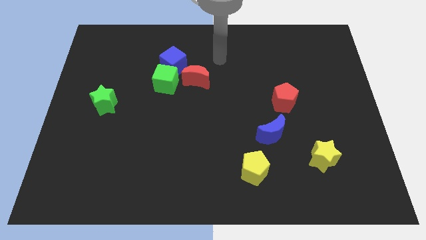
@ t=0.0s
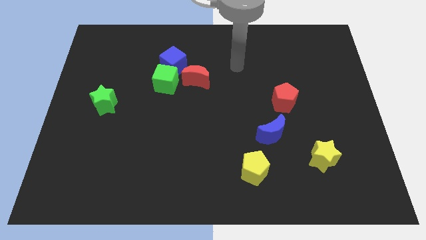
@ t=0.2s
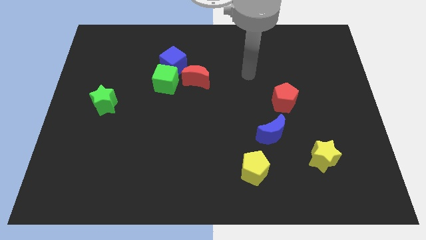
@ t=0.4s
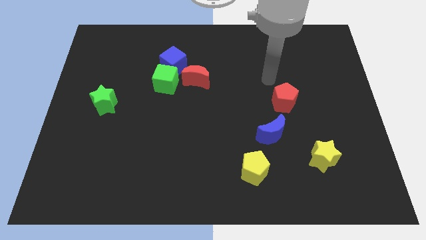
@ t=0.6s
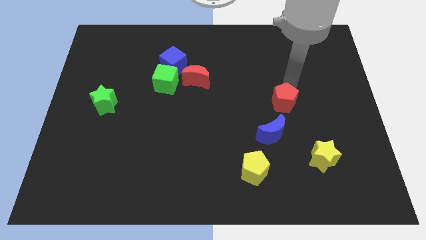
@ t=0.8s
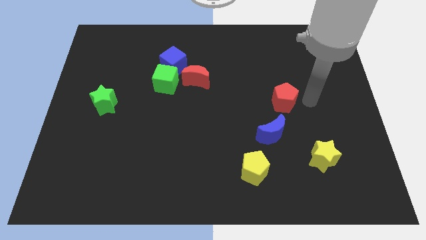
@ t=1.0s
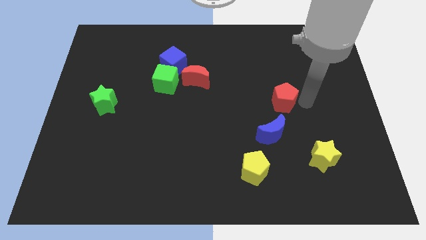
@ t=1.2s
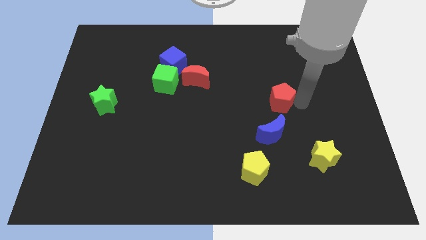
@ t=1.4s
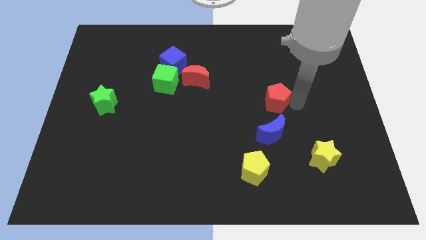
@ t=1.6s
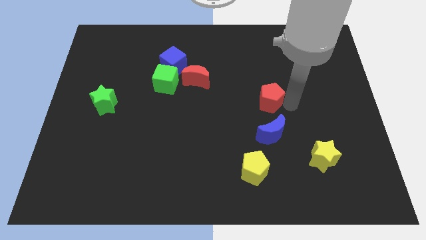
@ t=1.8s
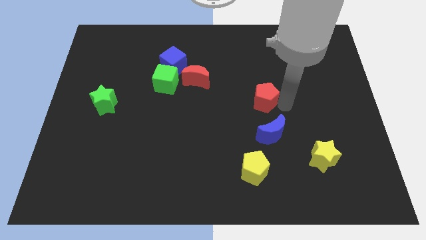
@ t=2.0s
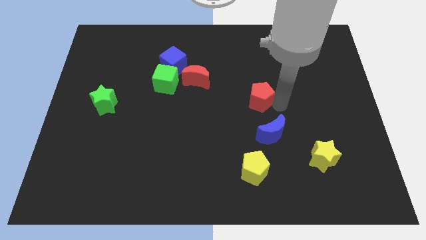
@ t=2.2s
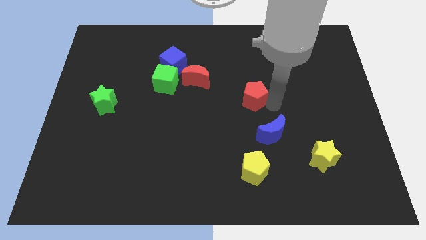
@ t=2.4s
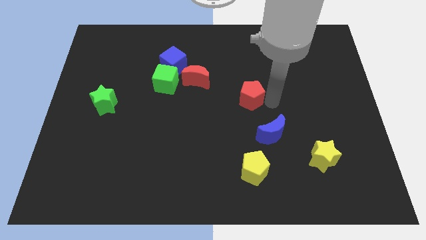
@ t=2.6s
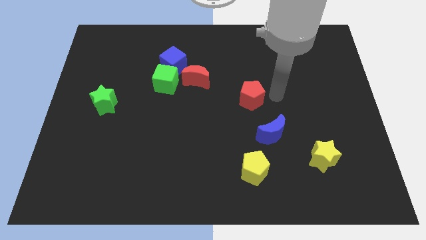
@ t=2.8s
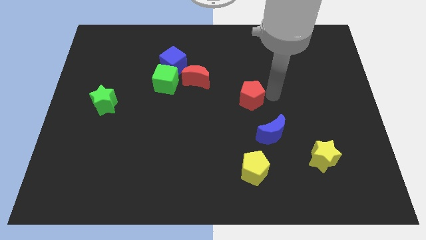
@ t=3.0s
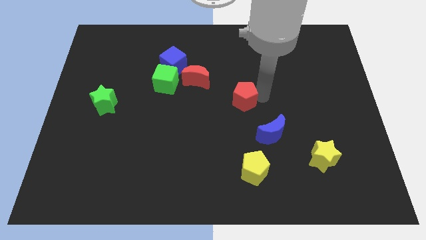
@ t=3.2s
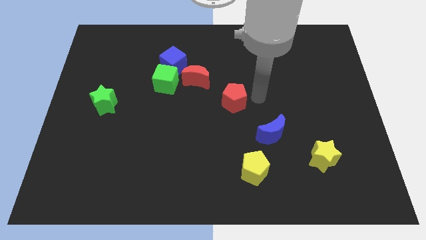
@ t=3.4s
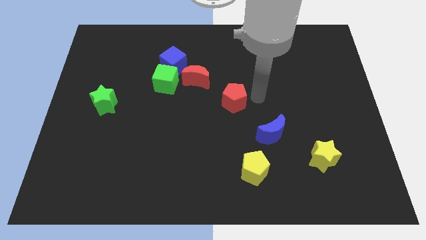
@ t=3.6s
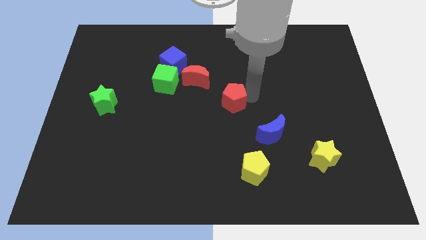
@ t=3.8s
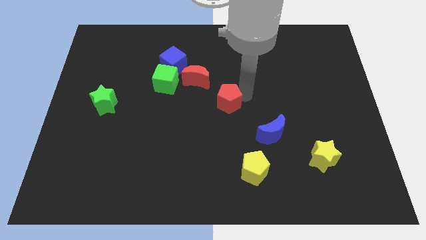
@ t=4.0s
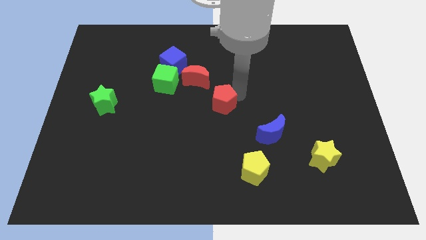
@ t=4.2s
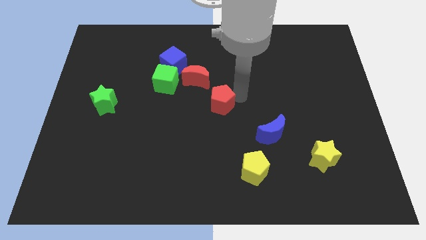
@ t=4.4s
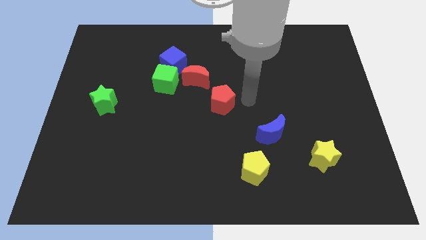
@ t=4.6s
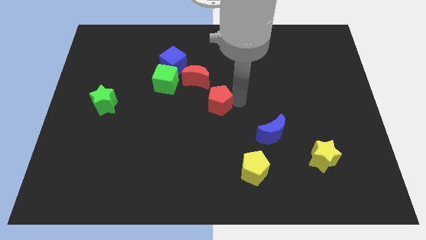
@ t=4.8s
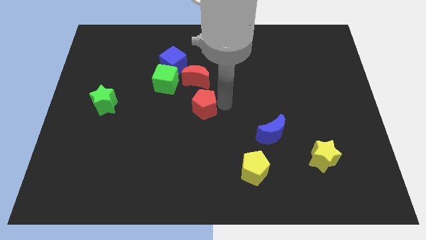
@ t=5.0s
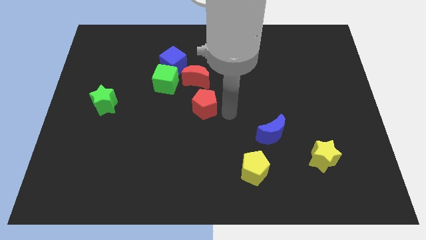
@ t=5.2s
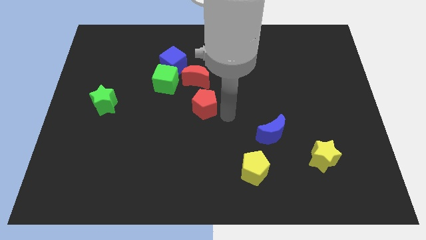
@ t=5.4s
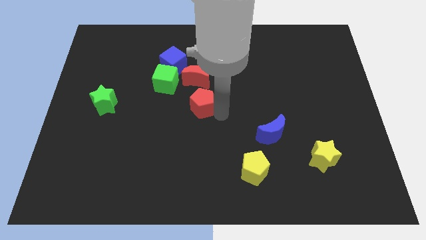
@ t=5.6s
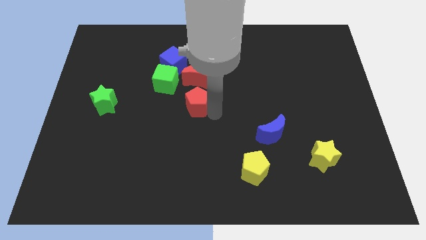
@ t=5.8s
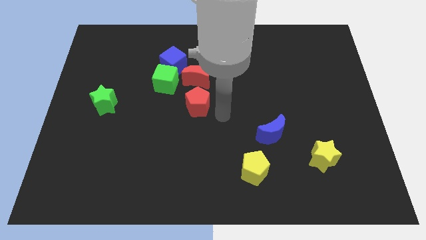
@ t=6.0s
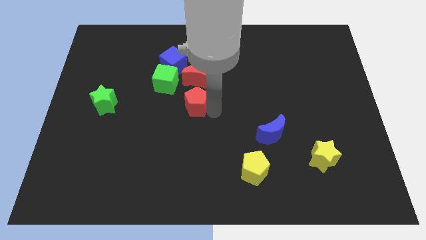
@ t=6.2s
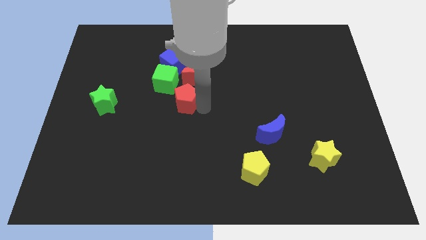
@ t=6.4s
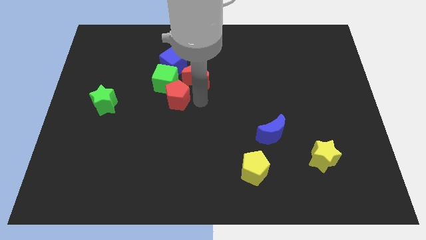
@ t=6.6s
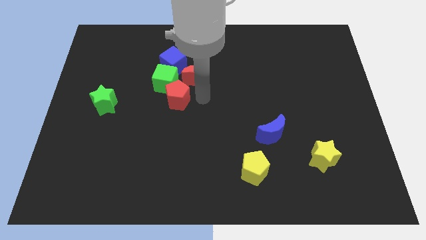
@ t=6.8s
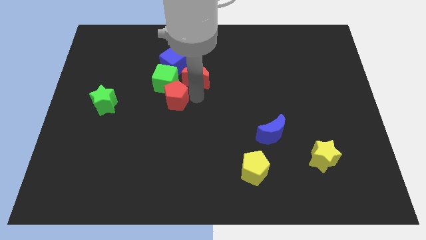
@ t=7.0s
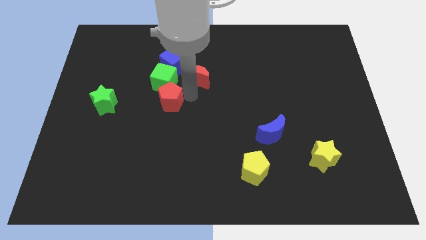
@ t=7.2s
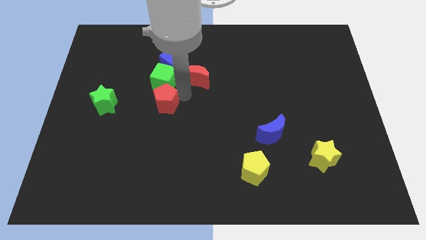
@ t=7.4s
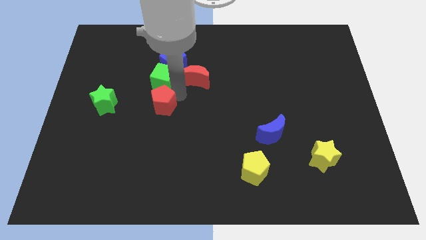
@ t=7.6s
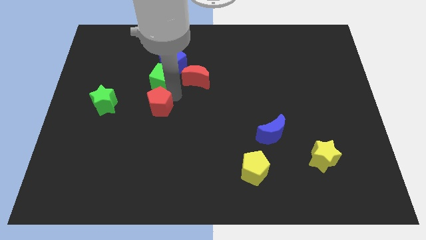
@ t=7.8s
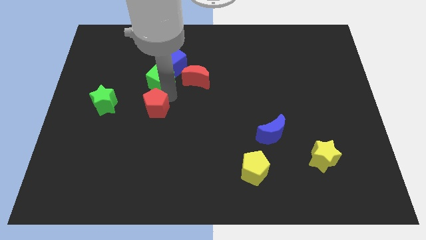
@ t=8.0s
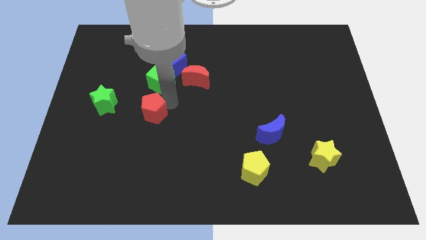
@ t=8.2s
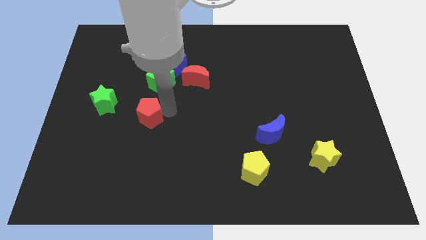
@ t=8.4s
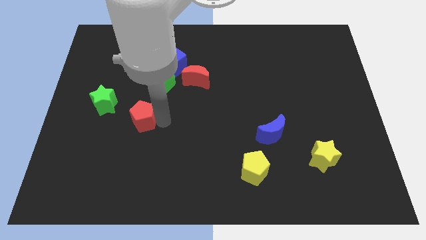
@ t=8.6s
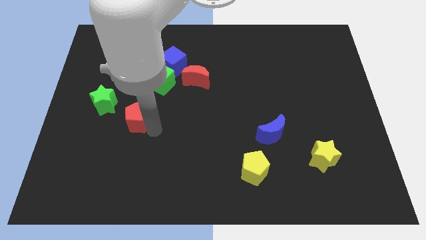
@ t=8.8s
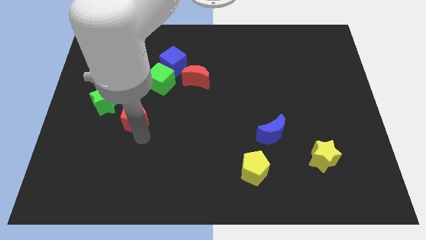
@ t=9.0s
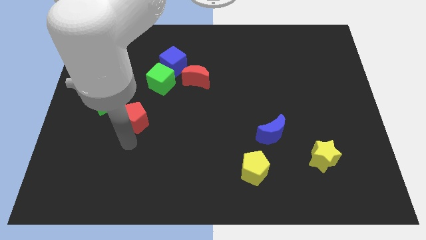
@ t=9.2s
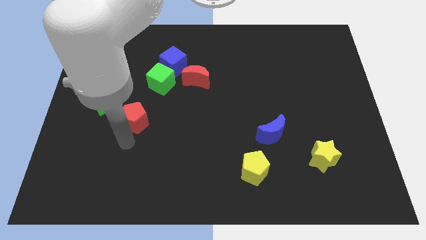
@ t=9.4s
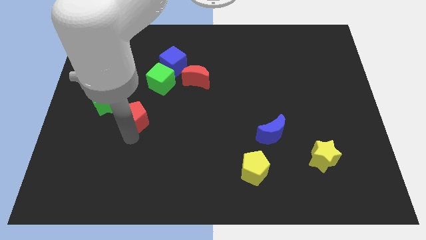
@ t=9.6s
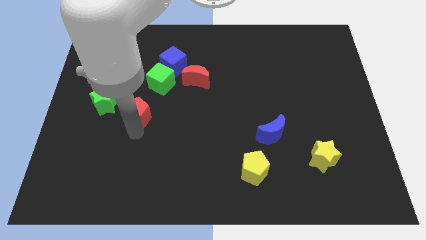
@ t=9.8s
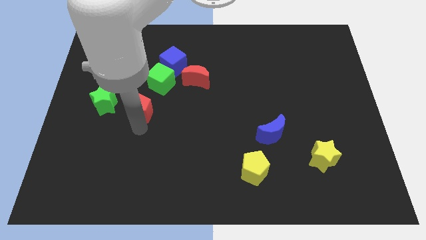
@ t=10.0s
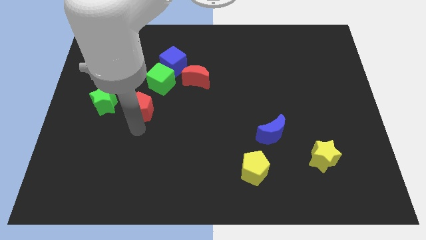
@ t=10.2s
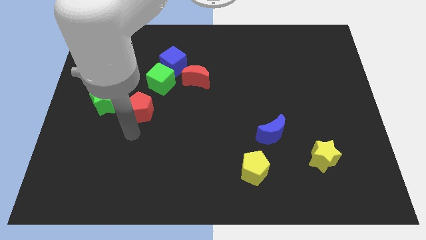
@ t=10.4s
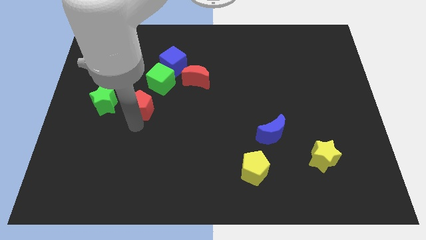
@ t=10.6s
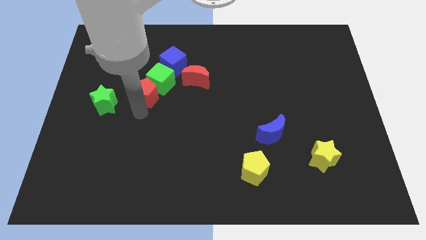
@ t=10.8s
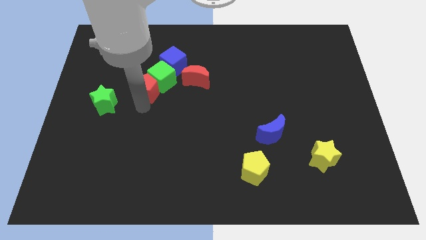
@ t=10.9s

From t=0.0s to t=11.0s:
slide the red pentagon to the left of the red moon

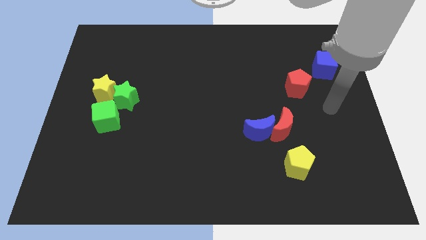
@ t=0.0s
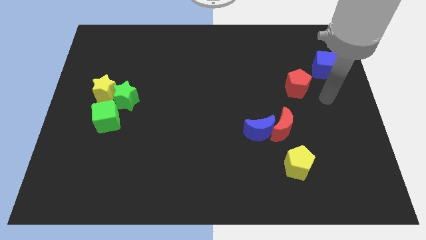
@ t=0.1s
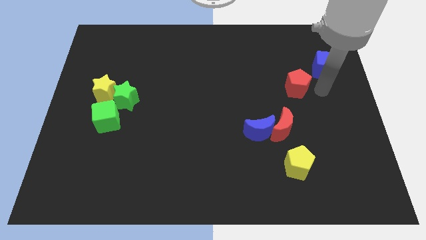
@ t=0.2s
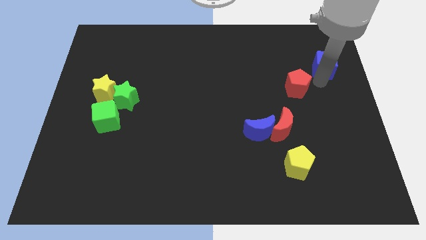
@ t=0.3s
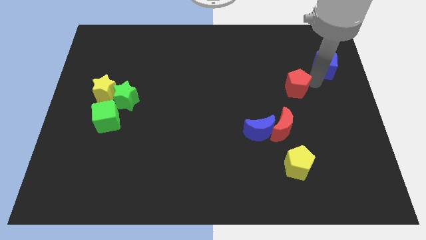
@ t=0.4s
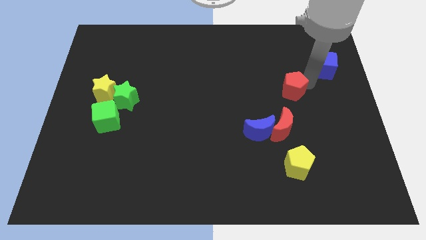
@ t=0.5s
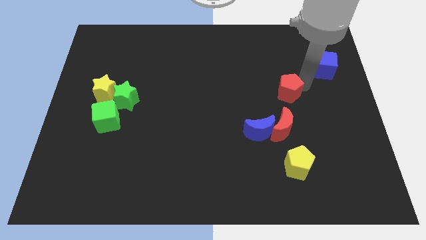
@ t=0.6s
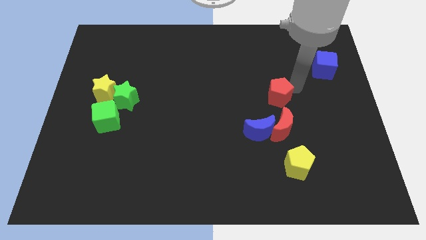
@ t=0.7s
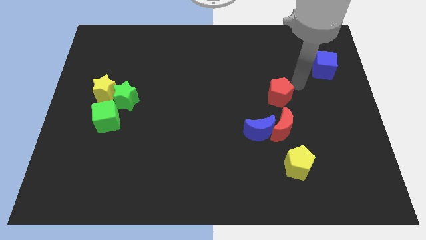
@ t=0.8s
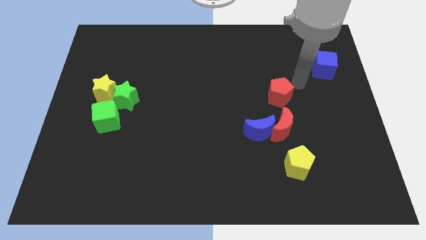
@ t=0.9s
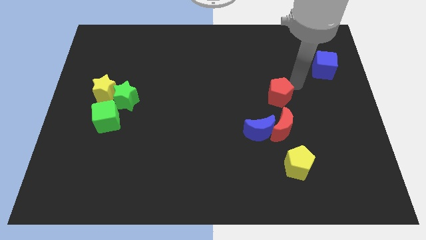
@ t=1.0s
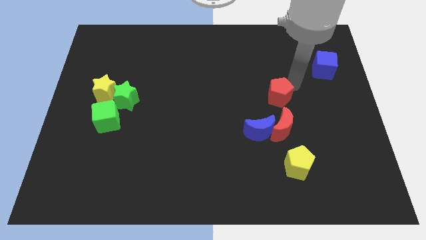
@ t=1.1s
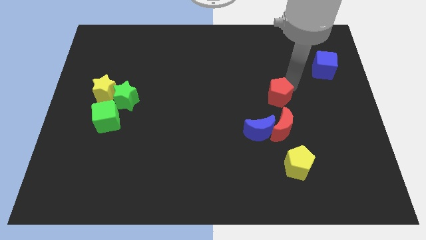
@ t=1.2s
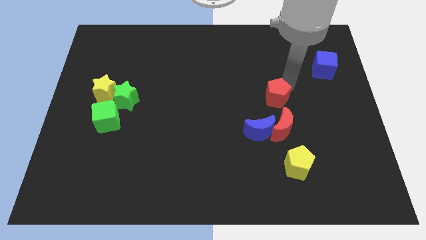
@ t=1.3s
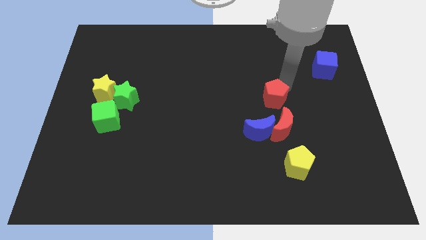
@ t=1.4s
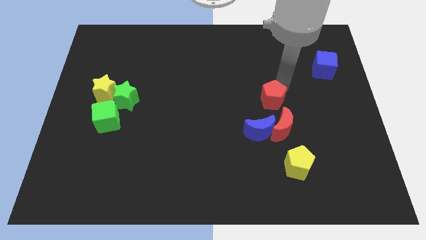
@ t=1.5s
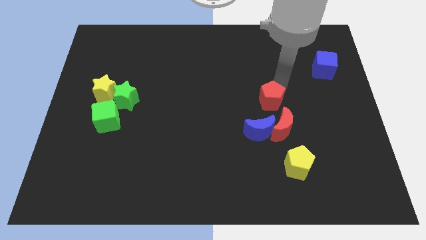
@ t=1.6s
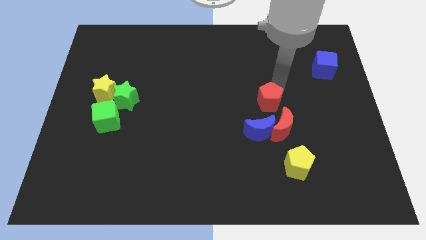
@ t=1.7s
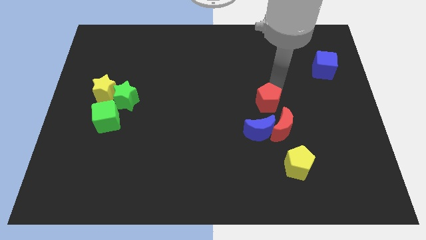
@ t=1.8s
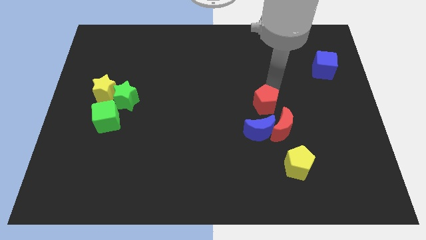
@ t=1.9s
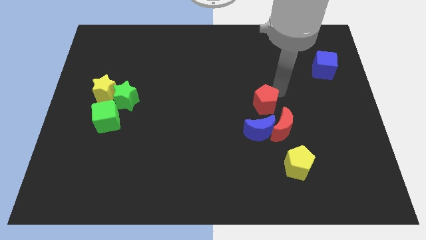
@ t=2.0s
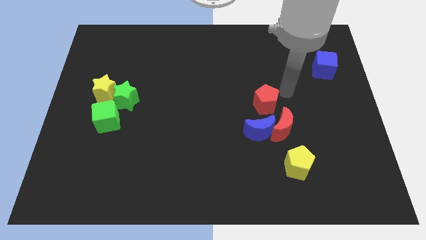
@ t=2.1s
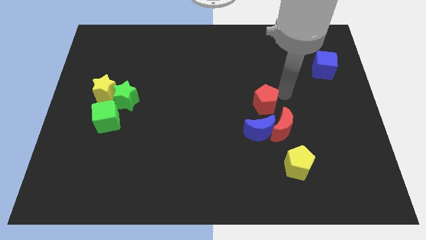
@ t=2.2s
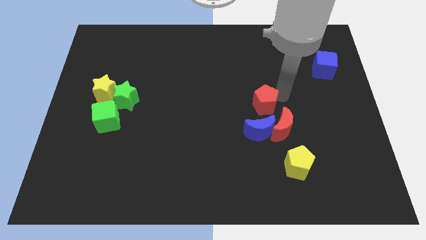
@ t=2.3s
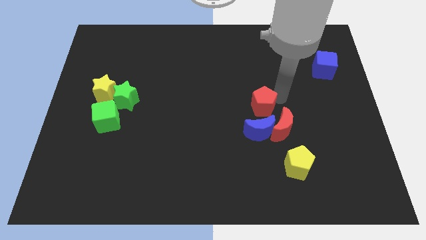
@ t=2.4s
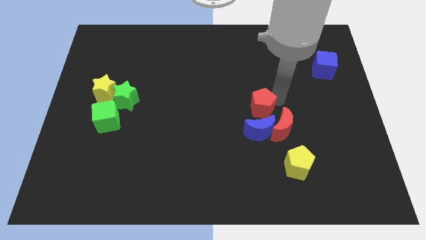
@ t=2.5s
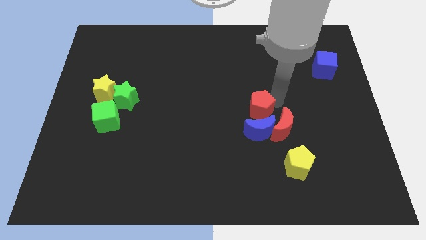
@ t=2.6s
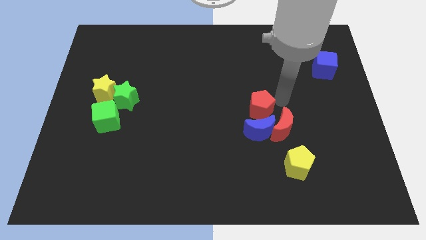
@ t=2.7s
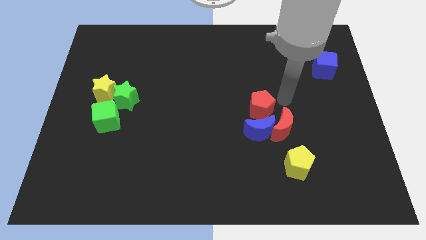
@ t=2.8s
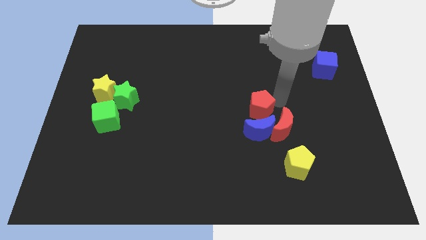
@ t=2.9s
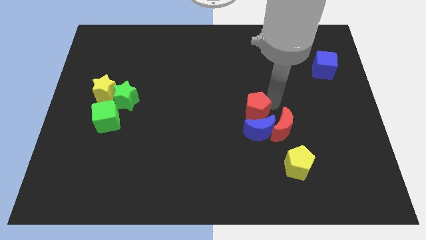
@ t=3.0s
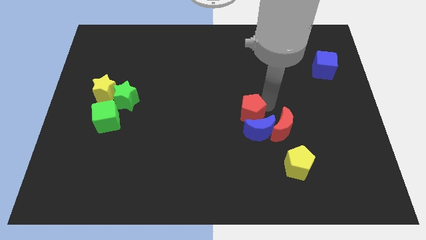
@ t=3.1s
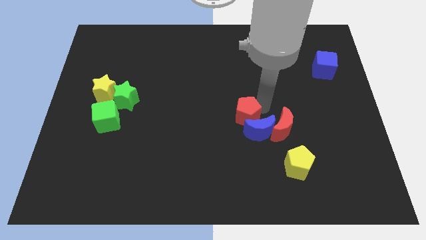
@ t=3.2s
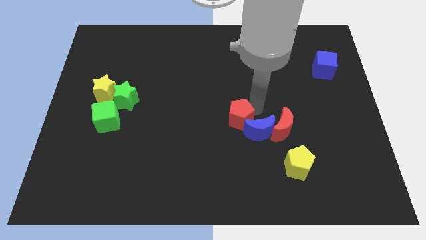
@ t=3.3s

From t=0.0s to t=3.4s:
move the red pentagon to the left side of the blue moon
